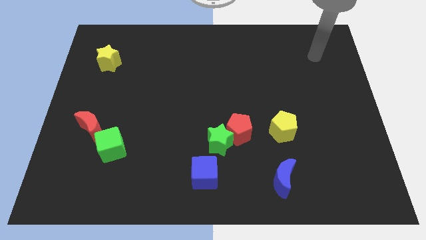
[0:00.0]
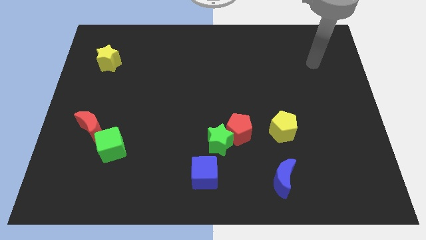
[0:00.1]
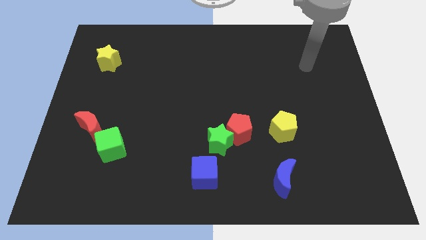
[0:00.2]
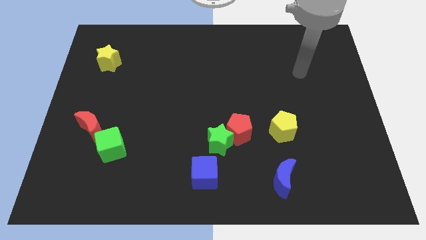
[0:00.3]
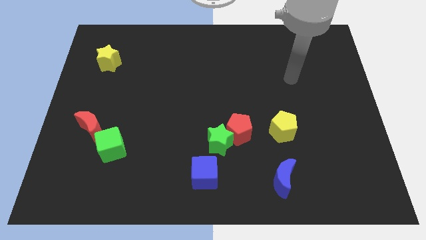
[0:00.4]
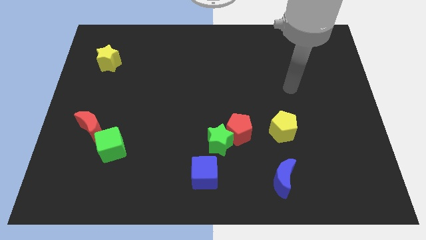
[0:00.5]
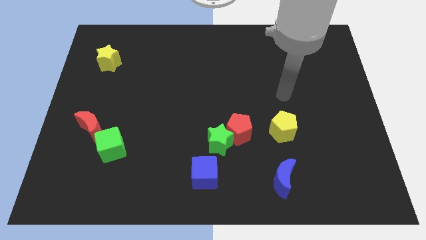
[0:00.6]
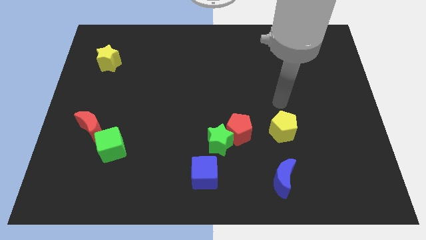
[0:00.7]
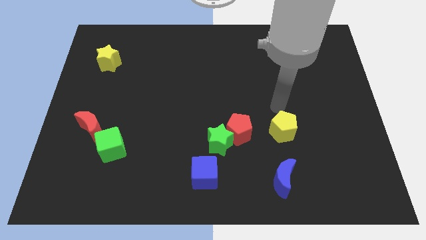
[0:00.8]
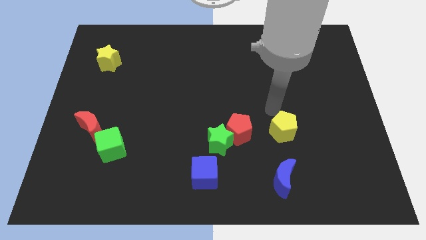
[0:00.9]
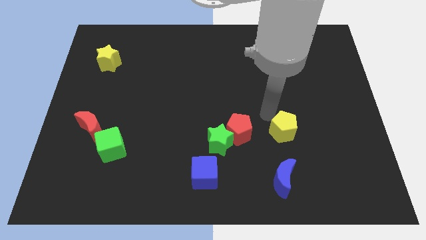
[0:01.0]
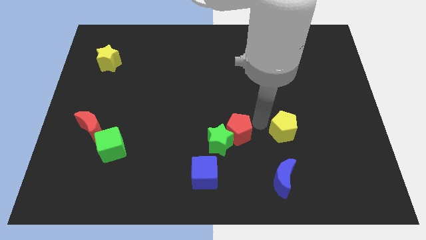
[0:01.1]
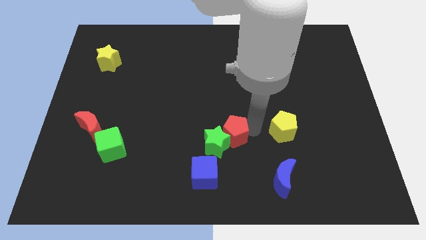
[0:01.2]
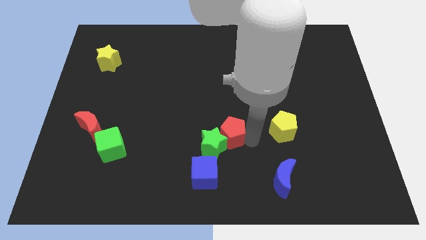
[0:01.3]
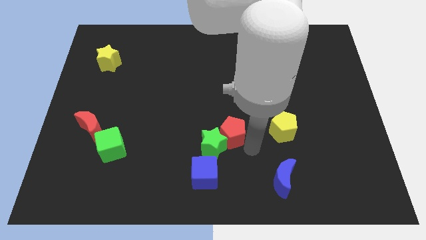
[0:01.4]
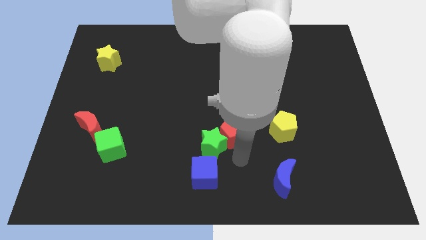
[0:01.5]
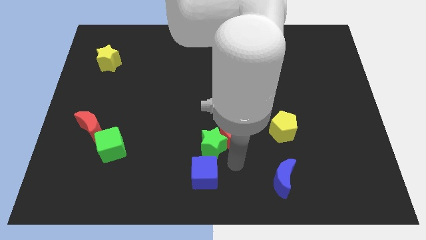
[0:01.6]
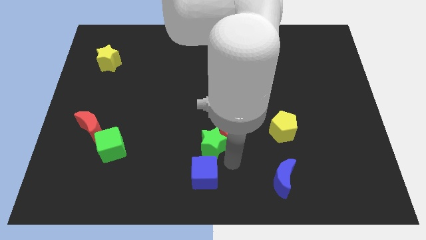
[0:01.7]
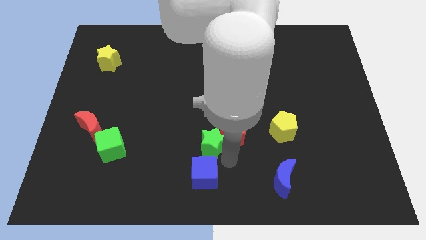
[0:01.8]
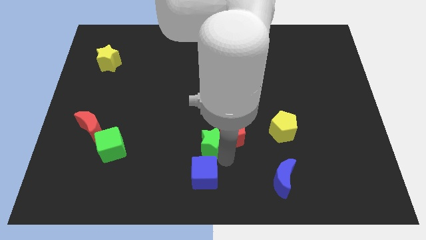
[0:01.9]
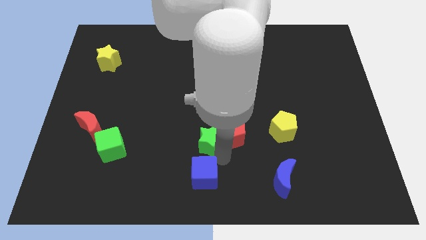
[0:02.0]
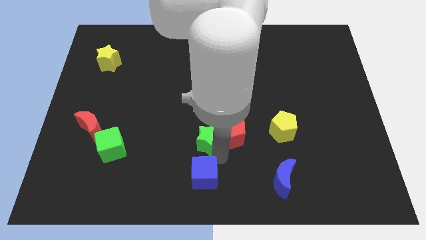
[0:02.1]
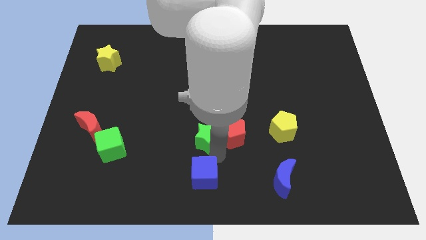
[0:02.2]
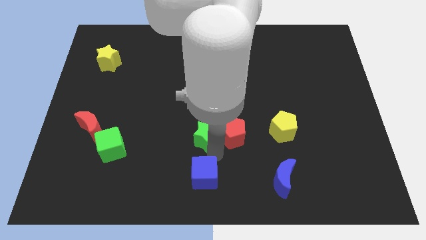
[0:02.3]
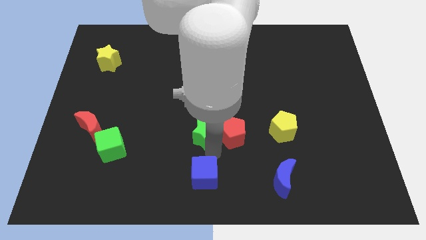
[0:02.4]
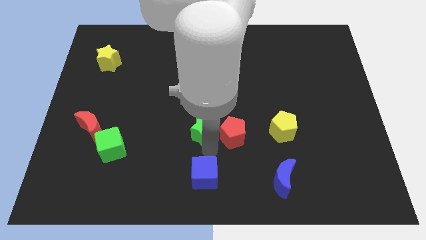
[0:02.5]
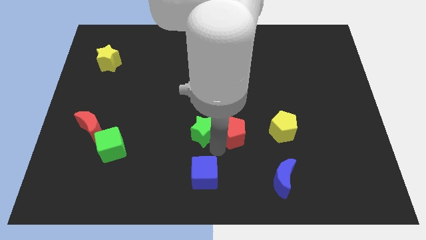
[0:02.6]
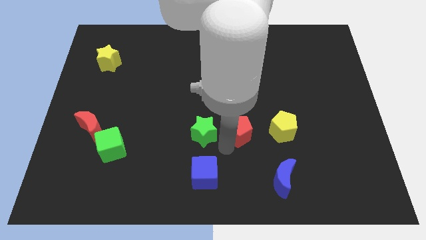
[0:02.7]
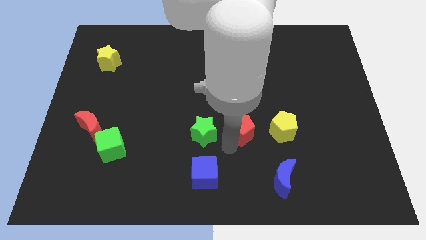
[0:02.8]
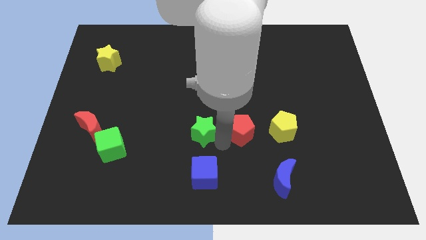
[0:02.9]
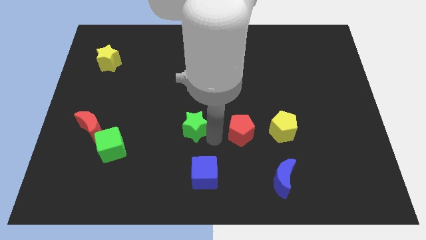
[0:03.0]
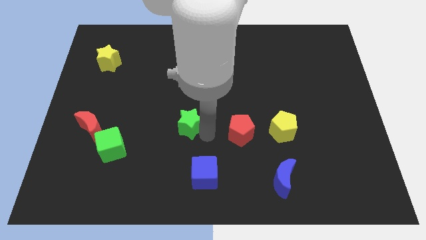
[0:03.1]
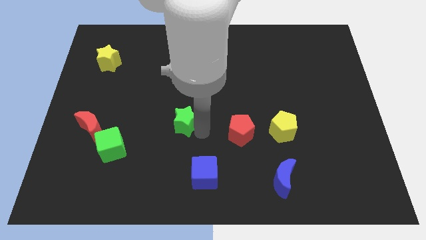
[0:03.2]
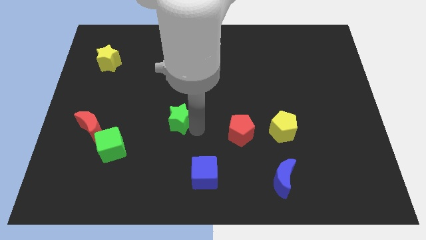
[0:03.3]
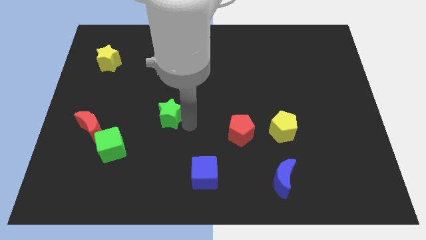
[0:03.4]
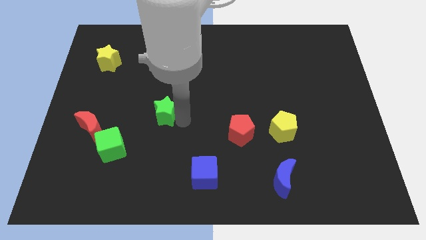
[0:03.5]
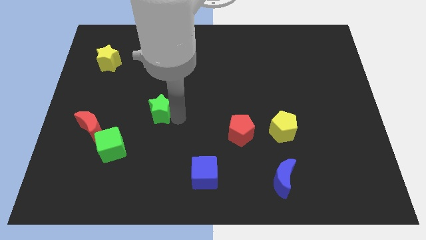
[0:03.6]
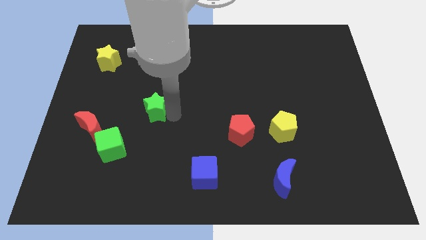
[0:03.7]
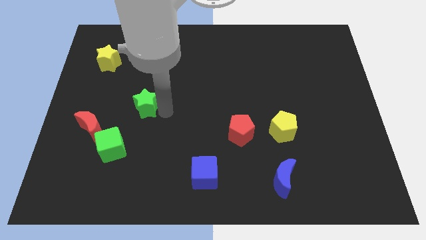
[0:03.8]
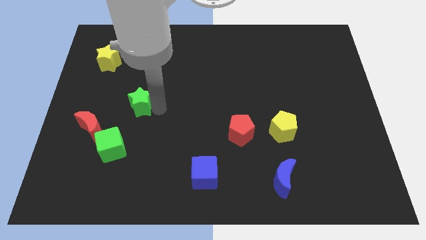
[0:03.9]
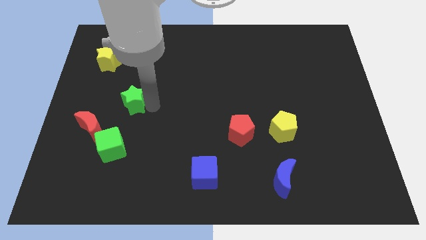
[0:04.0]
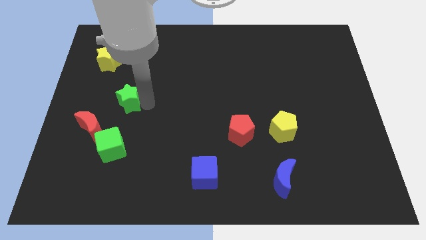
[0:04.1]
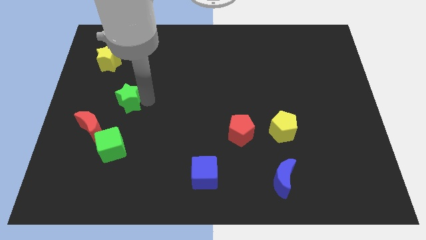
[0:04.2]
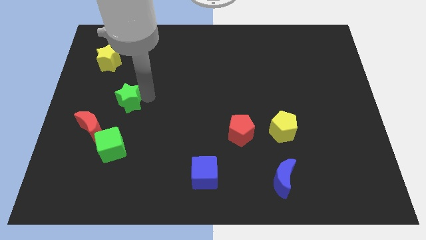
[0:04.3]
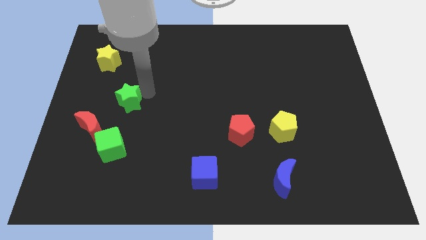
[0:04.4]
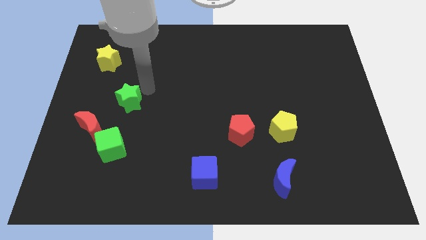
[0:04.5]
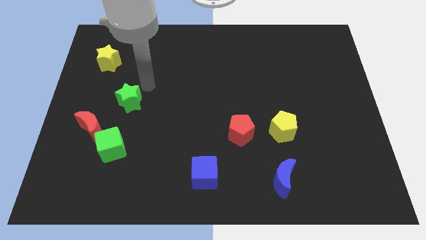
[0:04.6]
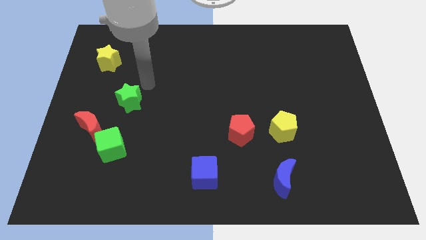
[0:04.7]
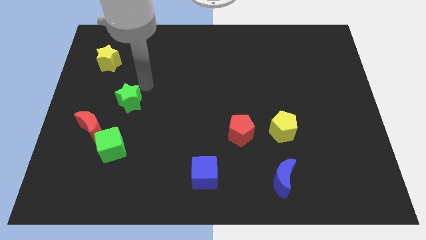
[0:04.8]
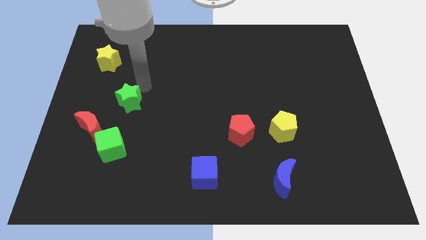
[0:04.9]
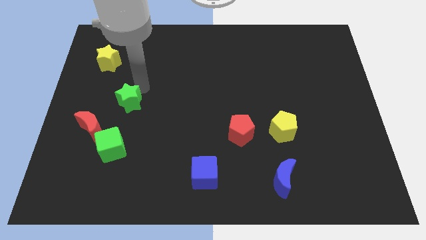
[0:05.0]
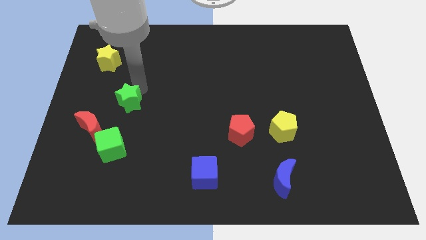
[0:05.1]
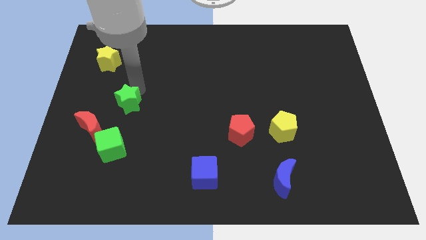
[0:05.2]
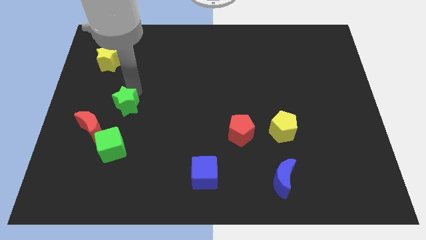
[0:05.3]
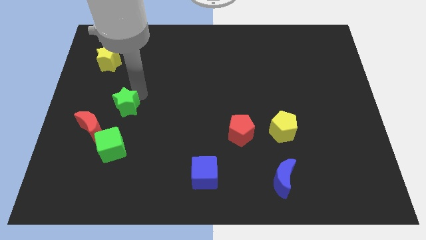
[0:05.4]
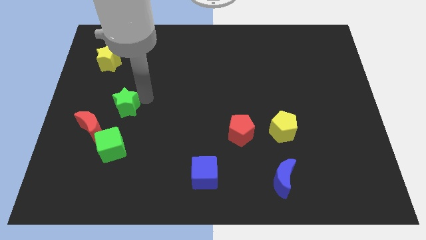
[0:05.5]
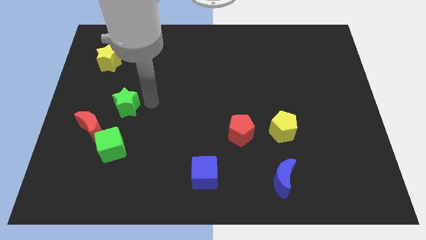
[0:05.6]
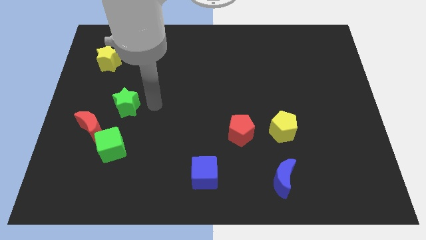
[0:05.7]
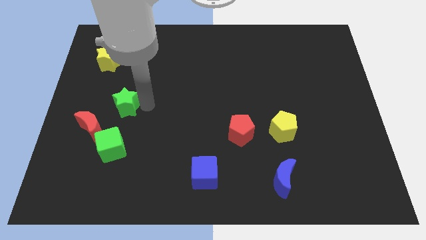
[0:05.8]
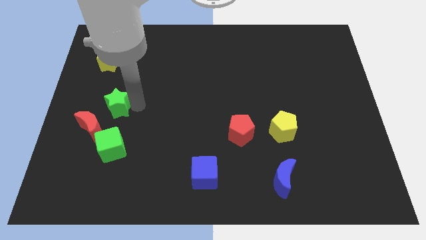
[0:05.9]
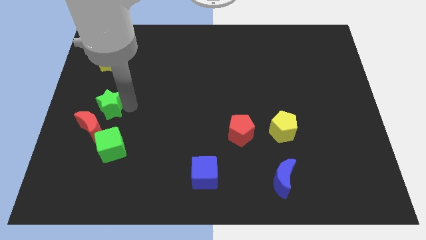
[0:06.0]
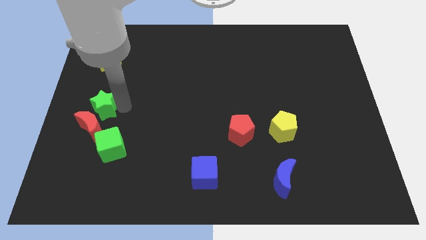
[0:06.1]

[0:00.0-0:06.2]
push the green star to the left side
